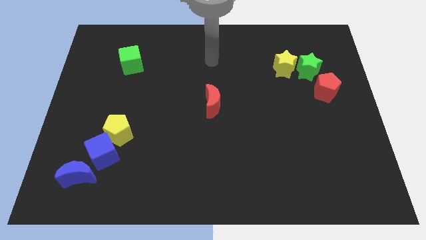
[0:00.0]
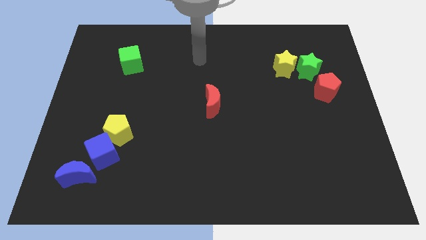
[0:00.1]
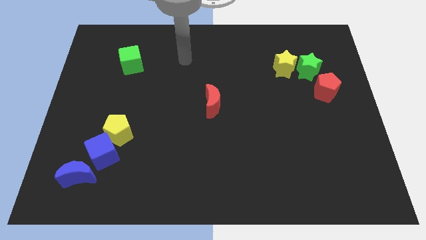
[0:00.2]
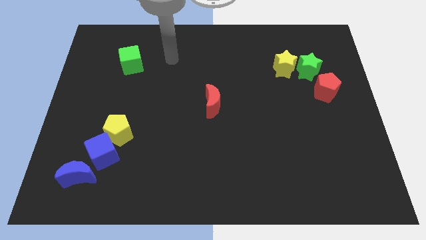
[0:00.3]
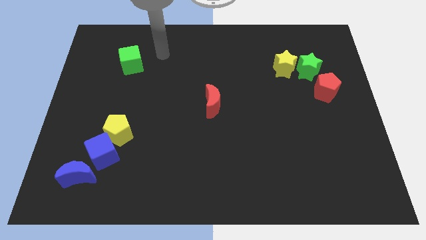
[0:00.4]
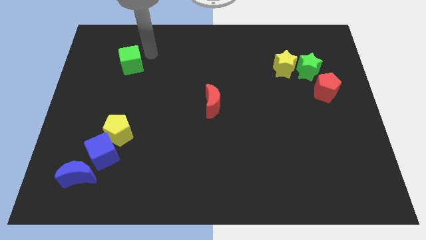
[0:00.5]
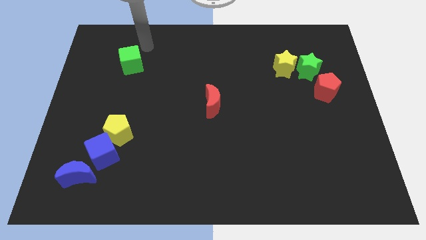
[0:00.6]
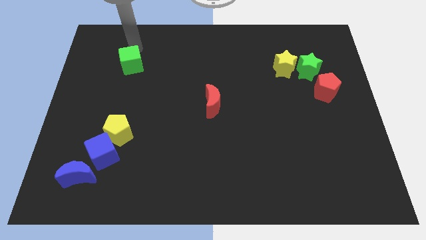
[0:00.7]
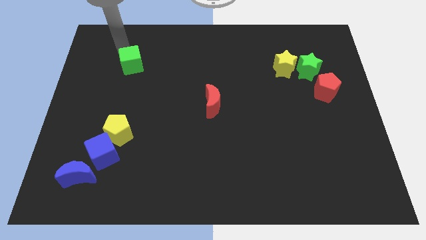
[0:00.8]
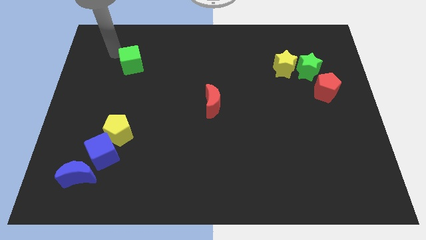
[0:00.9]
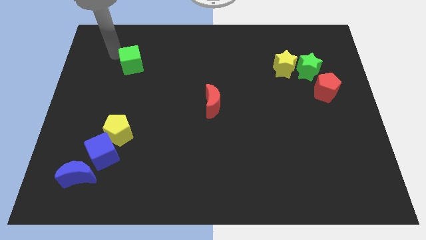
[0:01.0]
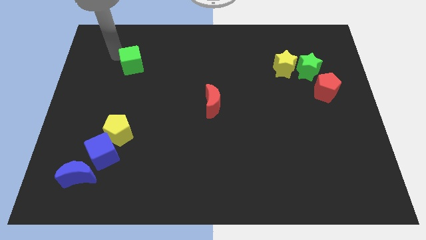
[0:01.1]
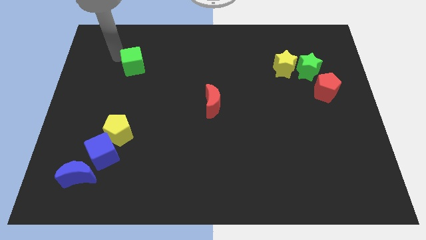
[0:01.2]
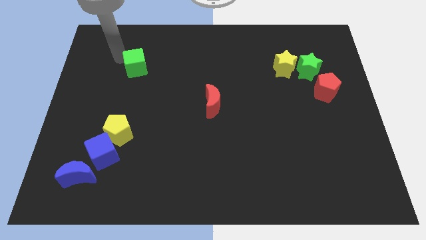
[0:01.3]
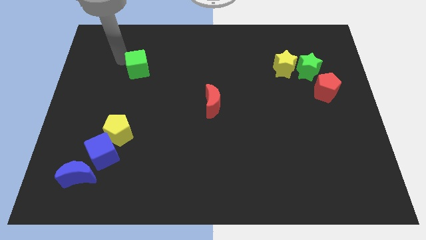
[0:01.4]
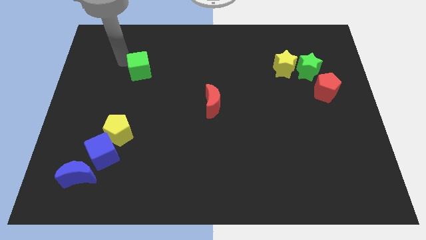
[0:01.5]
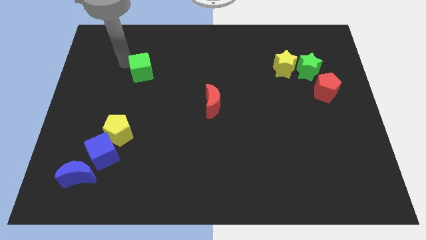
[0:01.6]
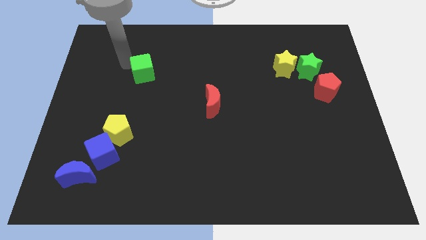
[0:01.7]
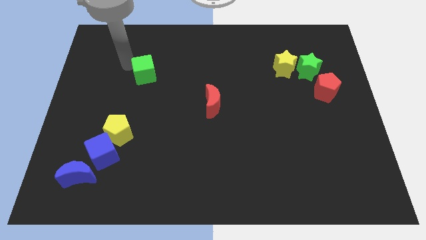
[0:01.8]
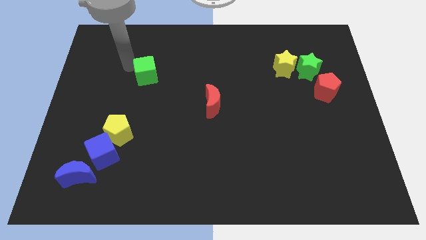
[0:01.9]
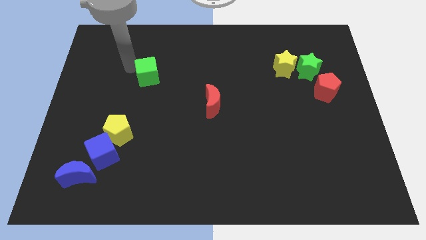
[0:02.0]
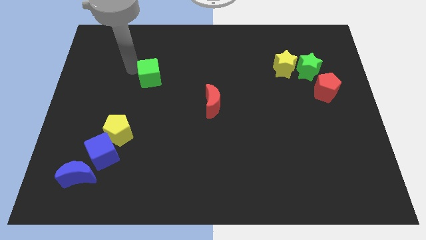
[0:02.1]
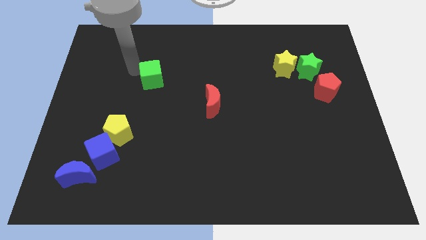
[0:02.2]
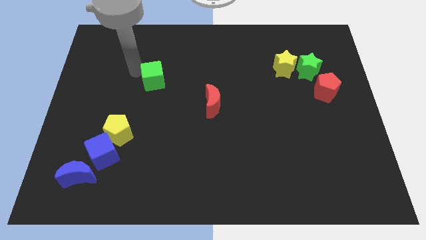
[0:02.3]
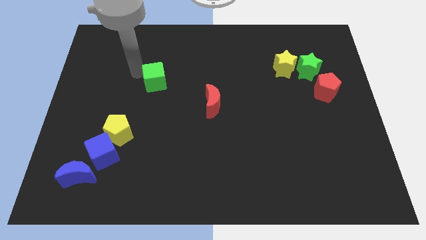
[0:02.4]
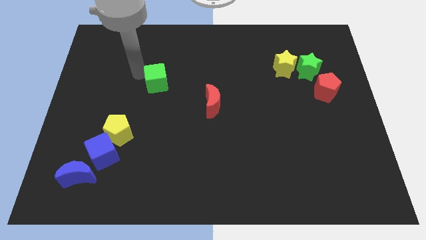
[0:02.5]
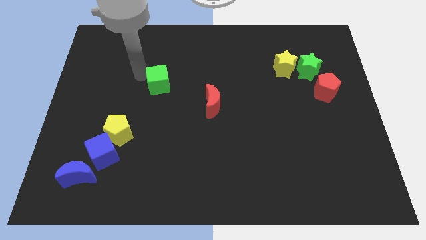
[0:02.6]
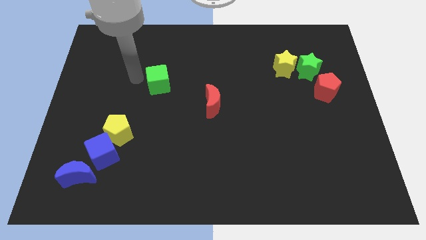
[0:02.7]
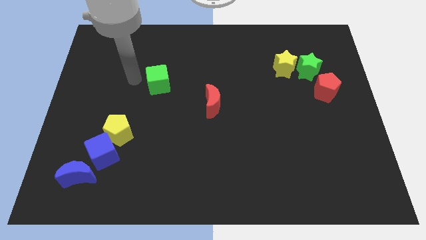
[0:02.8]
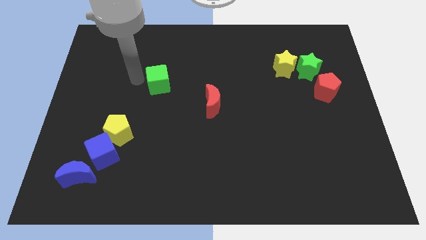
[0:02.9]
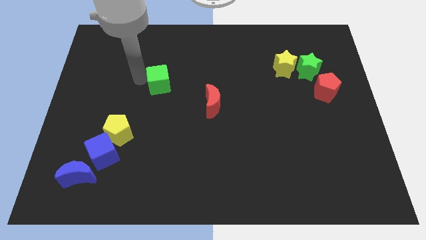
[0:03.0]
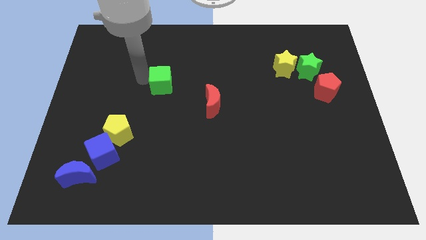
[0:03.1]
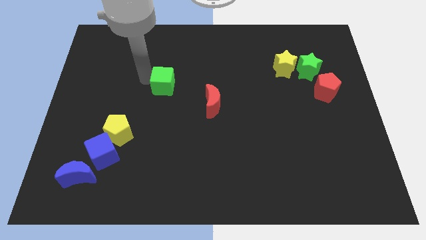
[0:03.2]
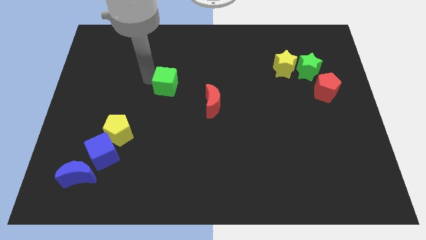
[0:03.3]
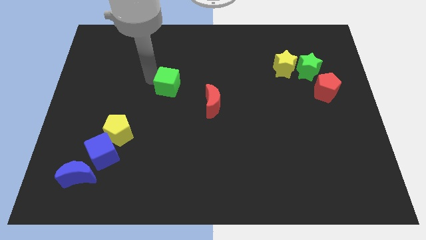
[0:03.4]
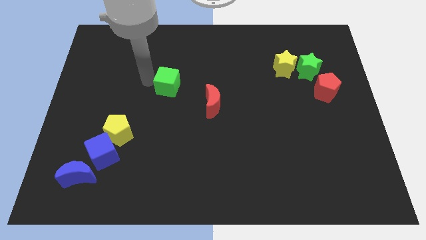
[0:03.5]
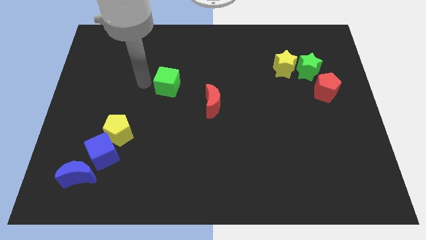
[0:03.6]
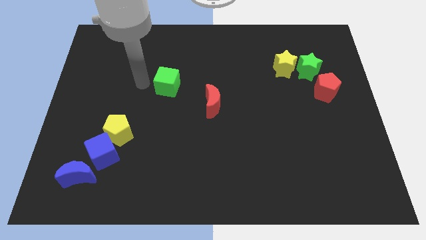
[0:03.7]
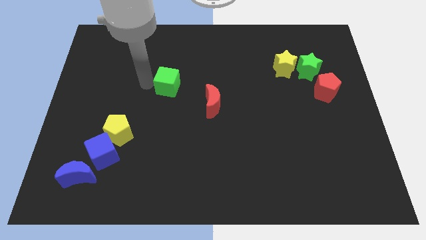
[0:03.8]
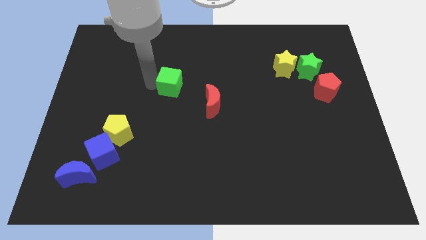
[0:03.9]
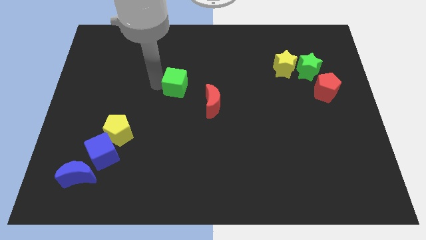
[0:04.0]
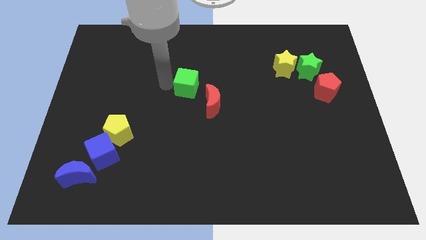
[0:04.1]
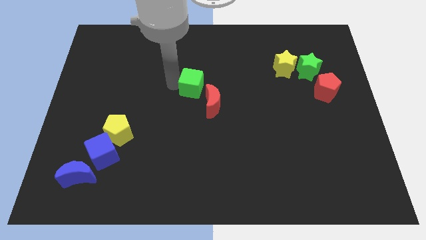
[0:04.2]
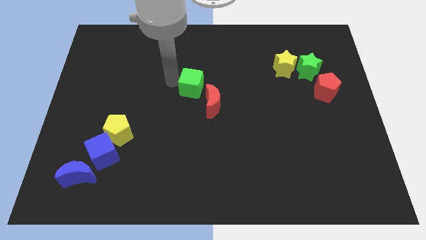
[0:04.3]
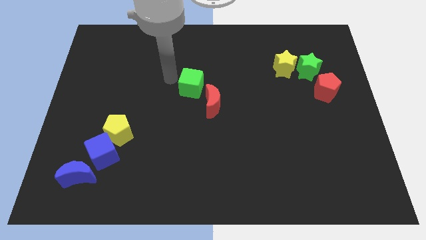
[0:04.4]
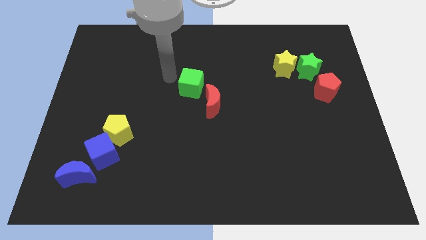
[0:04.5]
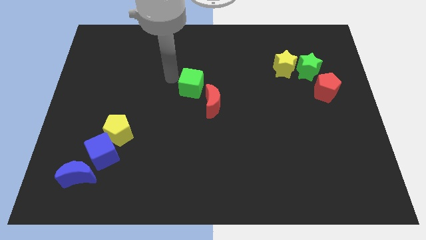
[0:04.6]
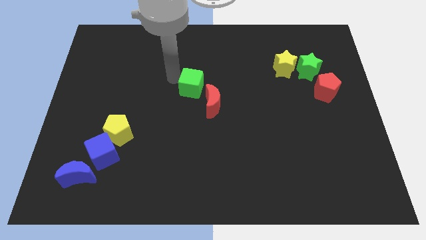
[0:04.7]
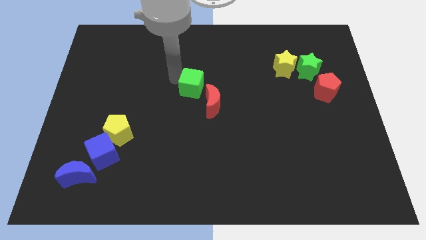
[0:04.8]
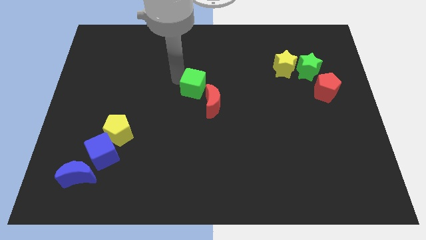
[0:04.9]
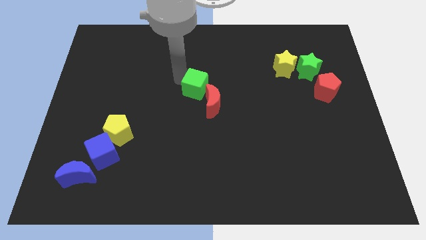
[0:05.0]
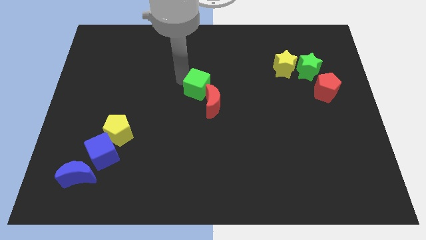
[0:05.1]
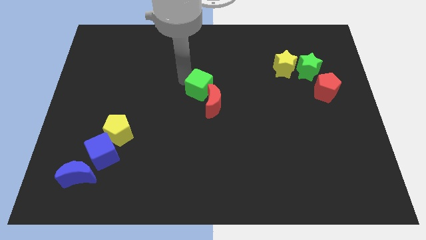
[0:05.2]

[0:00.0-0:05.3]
push the green cube next to the red moon

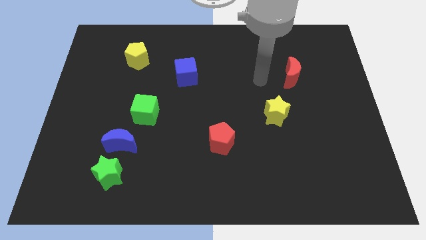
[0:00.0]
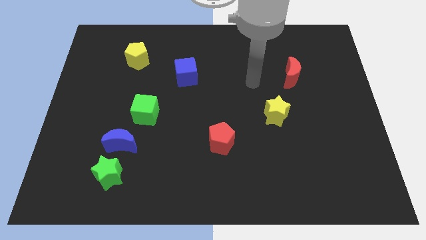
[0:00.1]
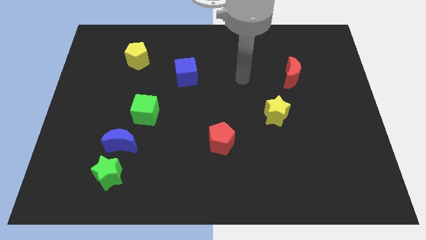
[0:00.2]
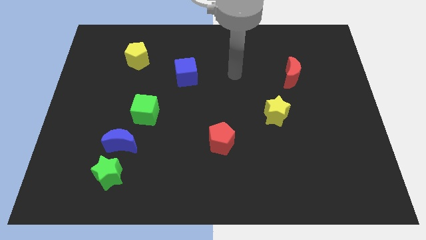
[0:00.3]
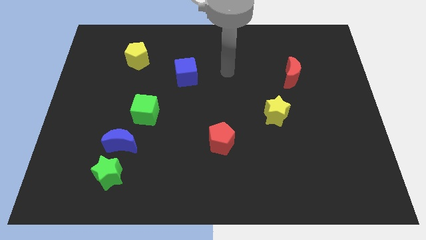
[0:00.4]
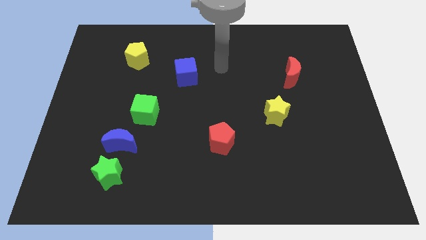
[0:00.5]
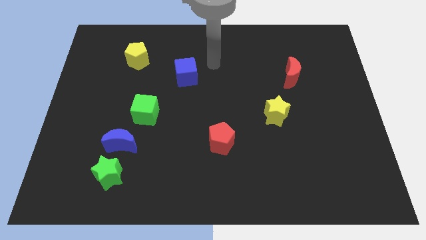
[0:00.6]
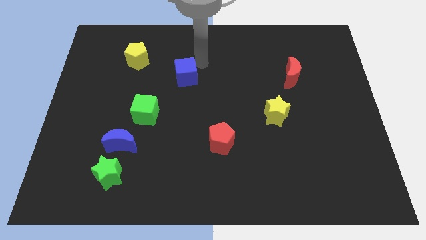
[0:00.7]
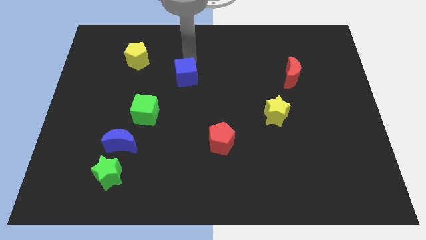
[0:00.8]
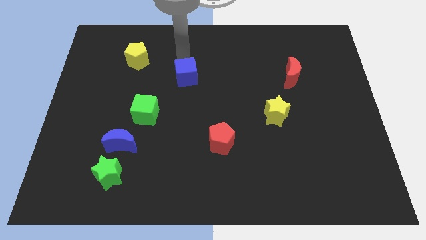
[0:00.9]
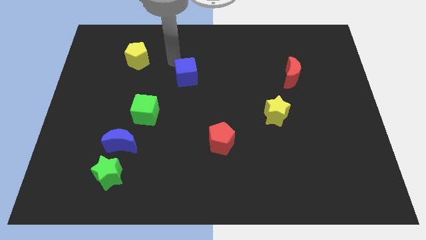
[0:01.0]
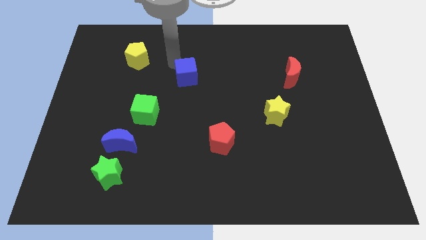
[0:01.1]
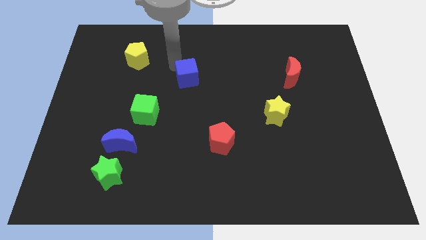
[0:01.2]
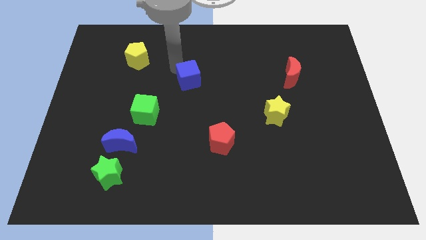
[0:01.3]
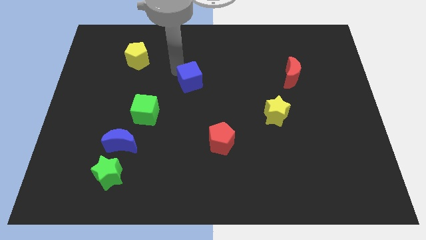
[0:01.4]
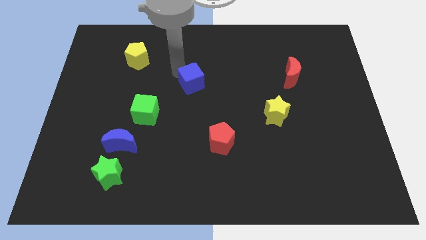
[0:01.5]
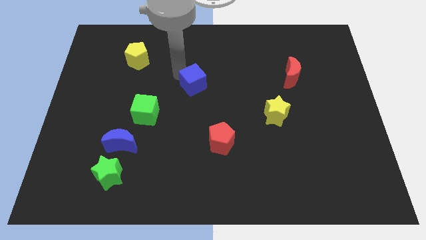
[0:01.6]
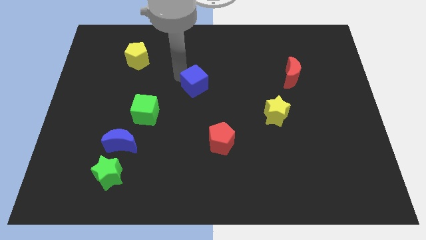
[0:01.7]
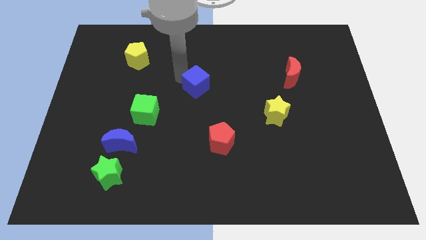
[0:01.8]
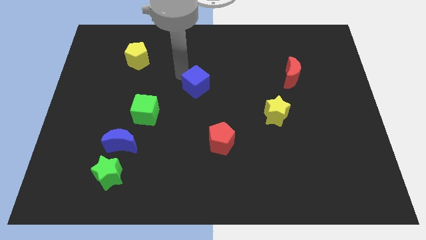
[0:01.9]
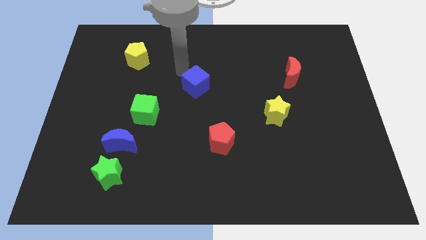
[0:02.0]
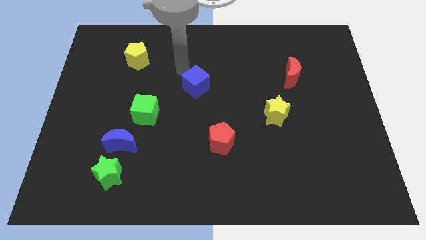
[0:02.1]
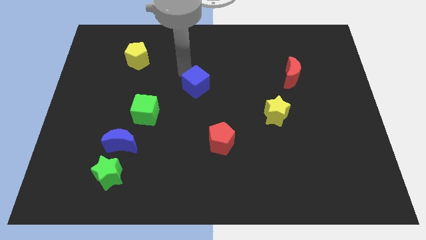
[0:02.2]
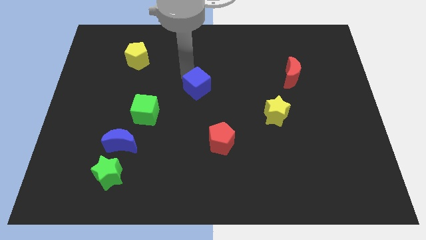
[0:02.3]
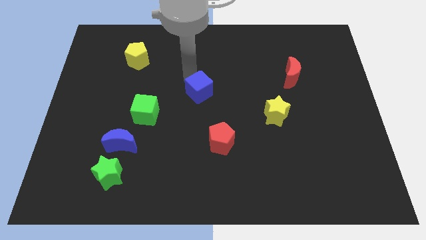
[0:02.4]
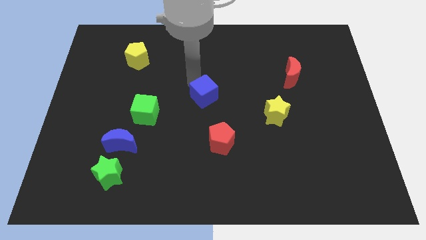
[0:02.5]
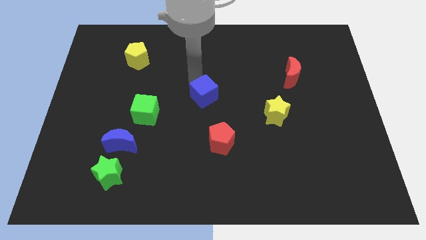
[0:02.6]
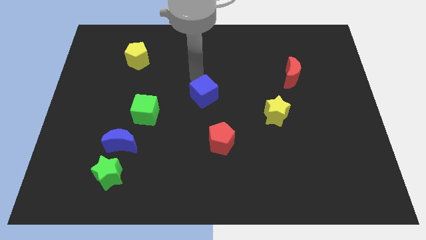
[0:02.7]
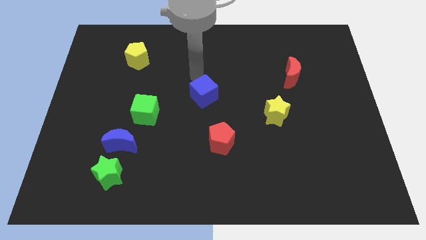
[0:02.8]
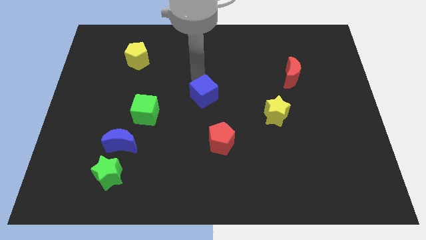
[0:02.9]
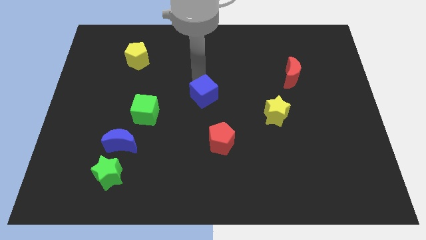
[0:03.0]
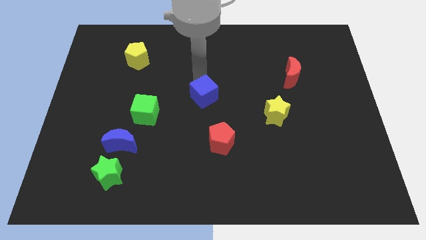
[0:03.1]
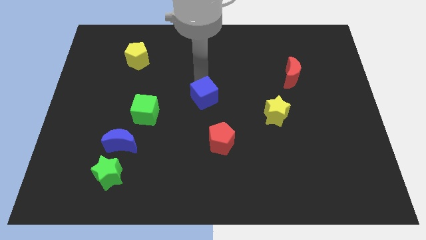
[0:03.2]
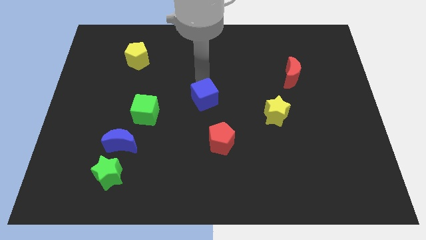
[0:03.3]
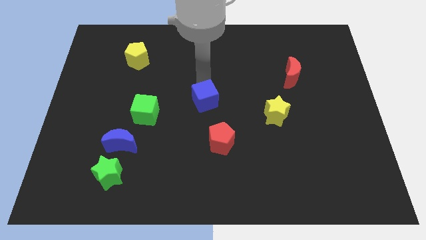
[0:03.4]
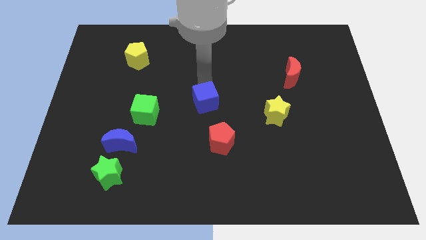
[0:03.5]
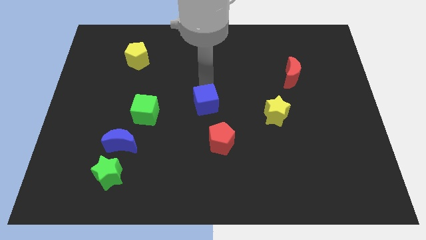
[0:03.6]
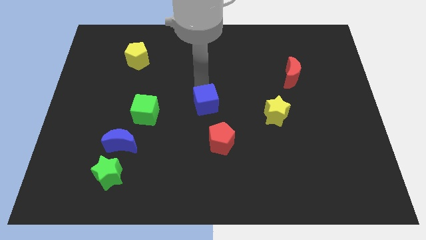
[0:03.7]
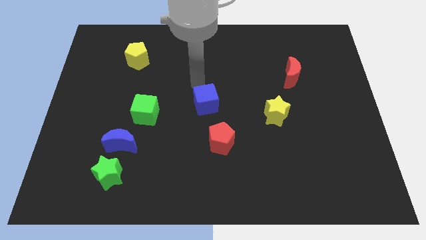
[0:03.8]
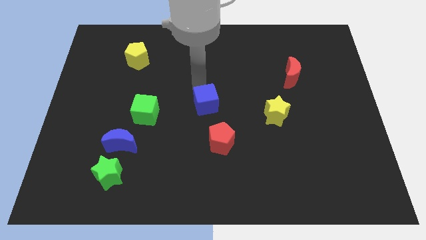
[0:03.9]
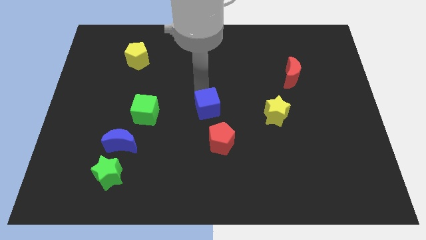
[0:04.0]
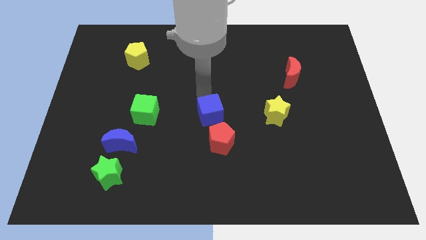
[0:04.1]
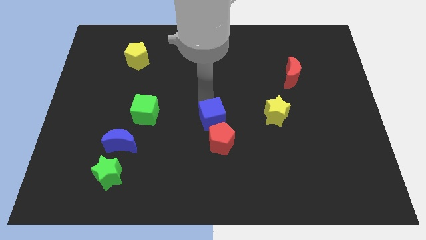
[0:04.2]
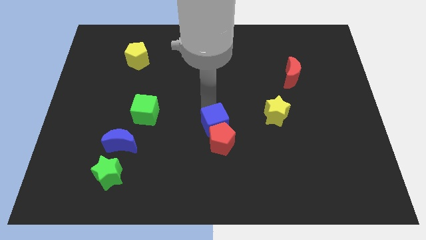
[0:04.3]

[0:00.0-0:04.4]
put the blue cube next to the red pentagon
